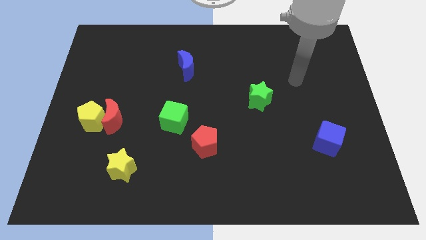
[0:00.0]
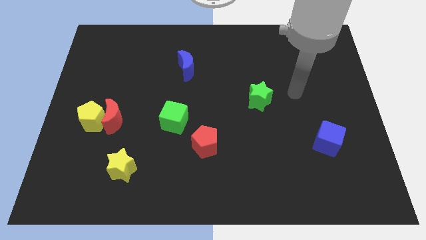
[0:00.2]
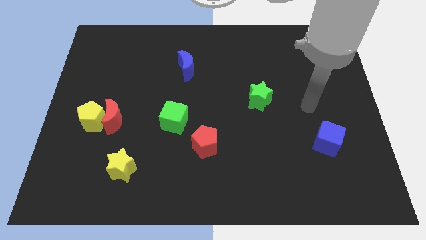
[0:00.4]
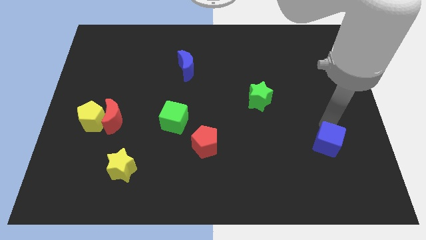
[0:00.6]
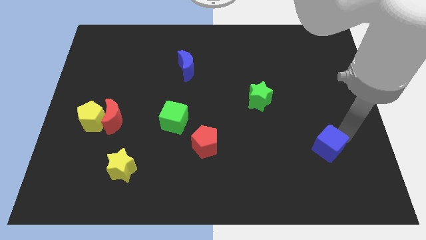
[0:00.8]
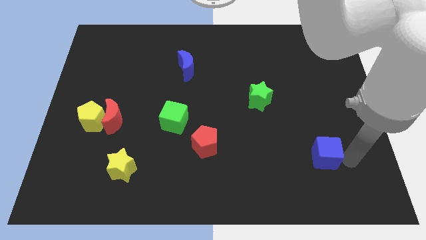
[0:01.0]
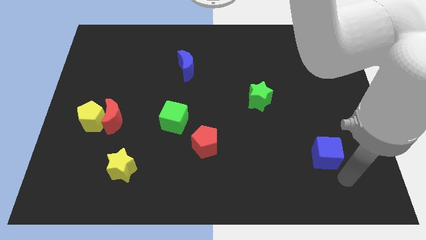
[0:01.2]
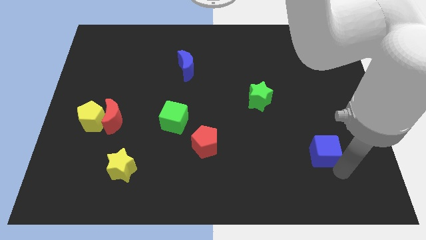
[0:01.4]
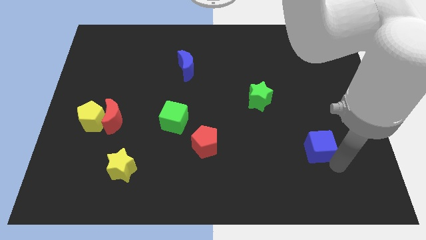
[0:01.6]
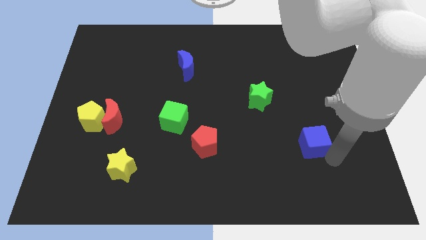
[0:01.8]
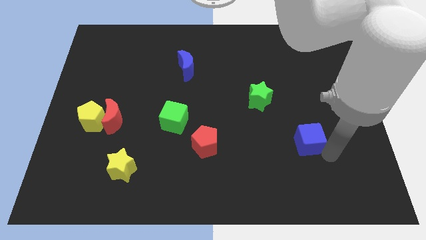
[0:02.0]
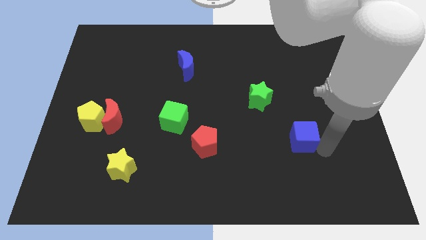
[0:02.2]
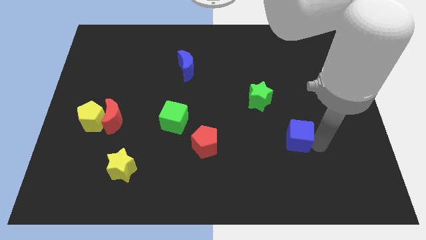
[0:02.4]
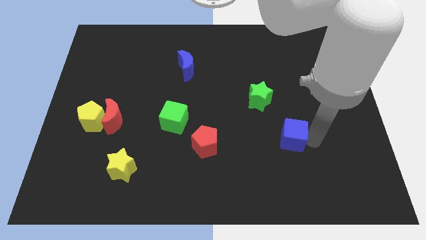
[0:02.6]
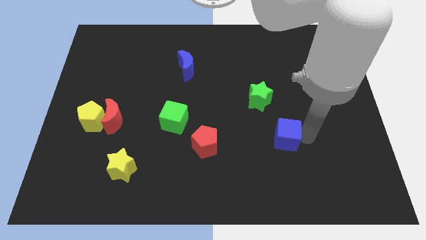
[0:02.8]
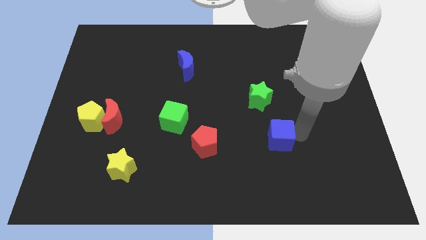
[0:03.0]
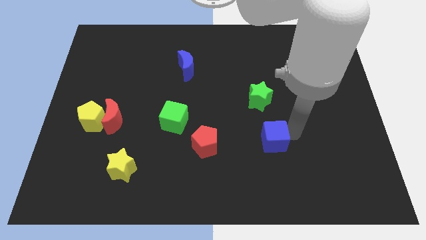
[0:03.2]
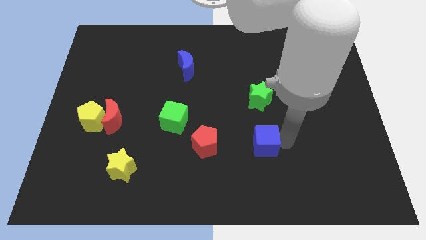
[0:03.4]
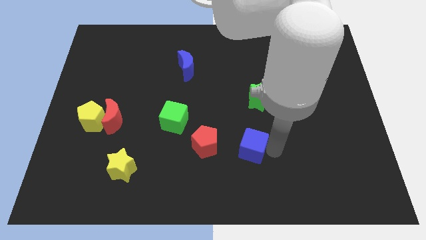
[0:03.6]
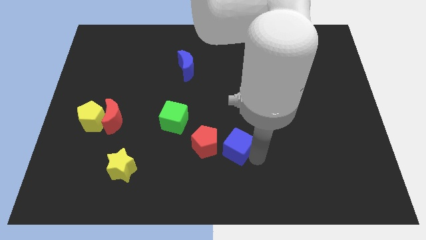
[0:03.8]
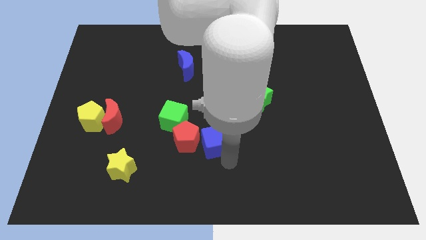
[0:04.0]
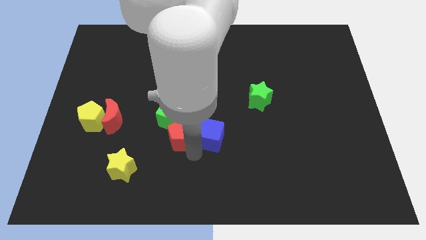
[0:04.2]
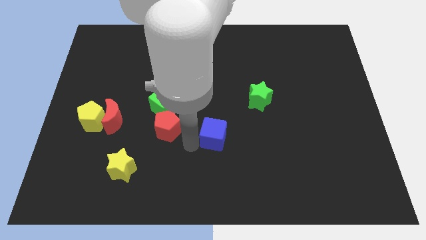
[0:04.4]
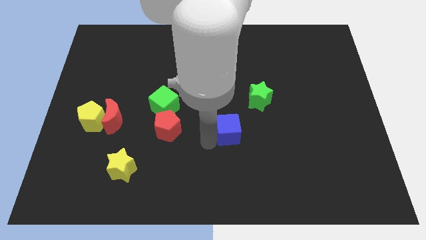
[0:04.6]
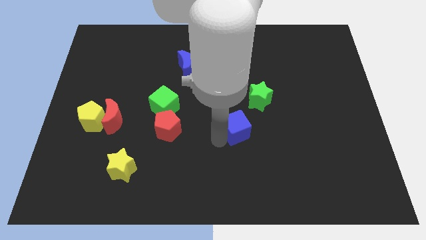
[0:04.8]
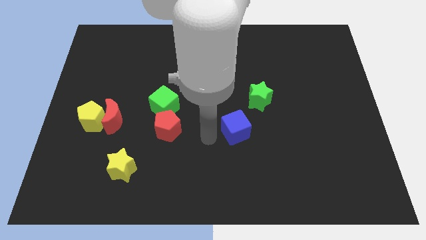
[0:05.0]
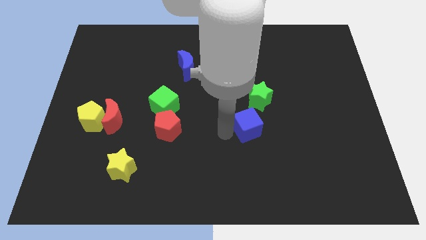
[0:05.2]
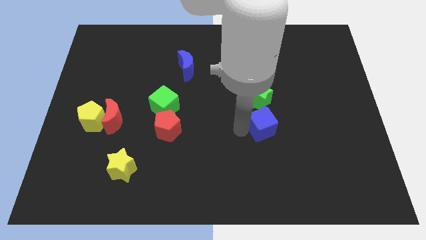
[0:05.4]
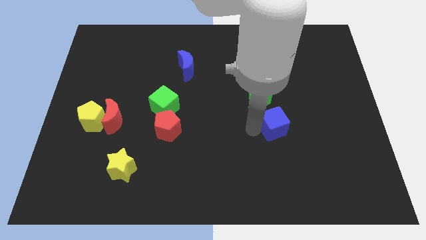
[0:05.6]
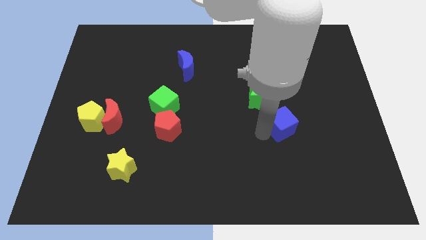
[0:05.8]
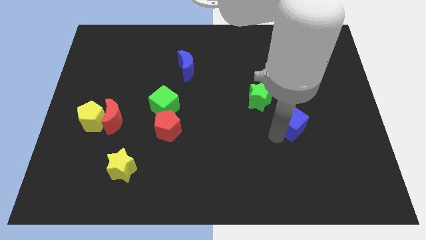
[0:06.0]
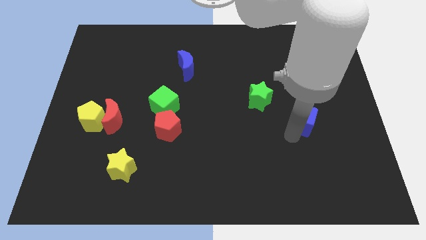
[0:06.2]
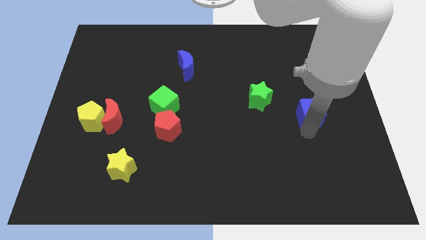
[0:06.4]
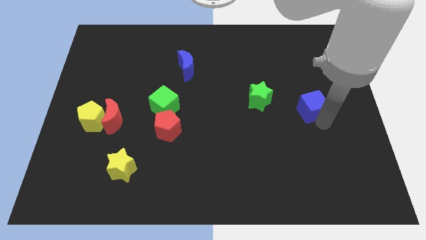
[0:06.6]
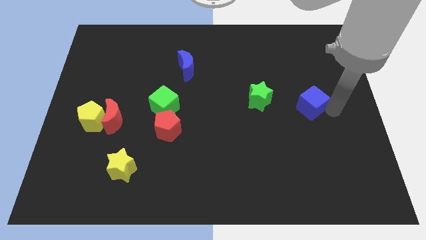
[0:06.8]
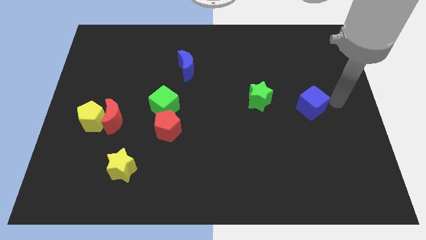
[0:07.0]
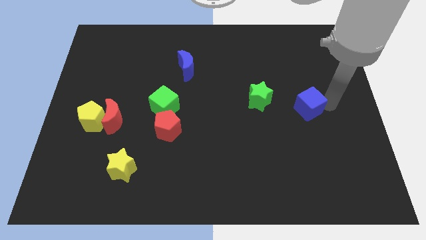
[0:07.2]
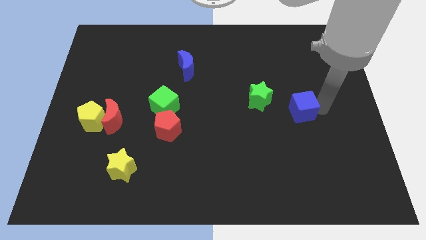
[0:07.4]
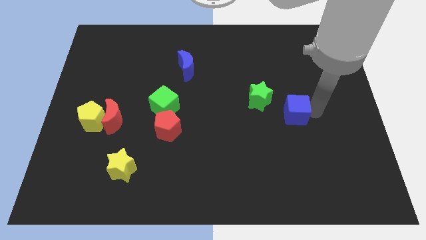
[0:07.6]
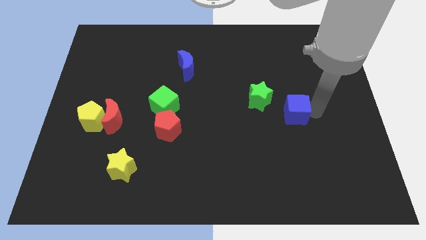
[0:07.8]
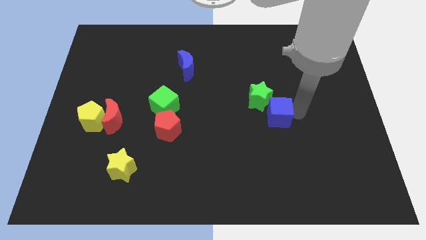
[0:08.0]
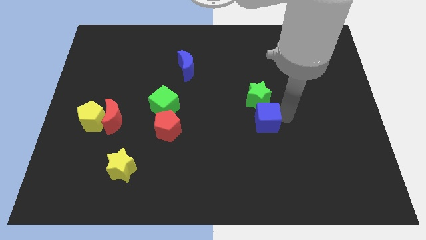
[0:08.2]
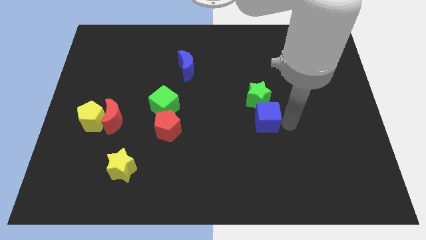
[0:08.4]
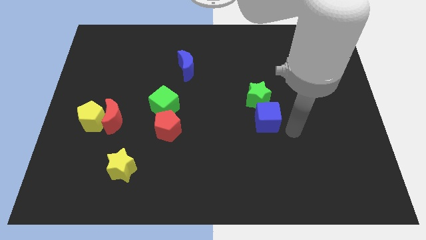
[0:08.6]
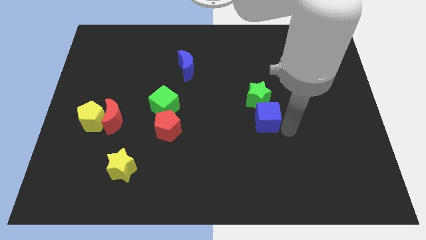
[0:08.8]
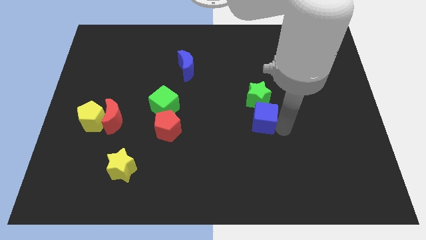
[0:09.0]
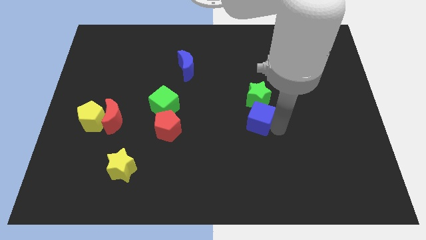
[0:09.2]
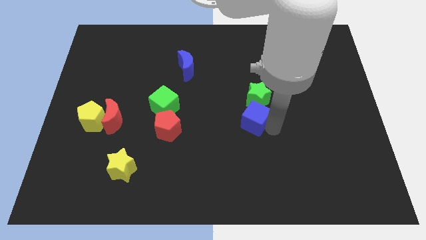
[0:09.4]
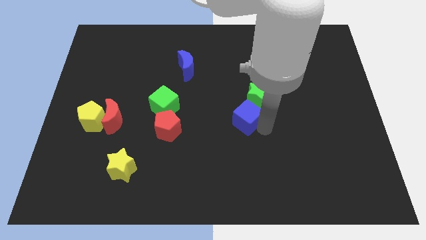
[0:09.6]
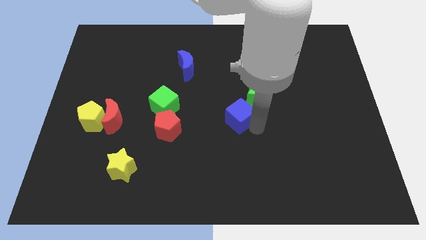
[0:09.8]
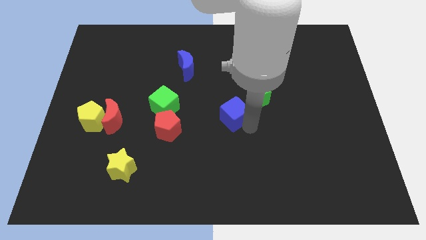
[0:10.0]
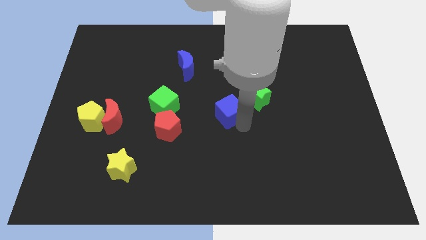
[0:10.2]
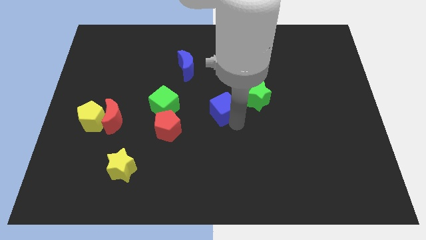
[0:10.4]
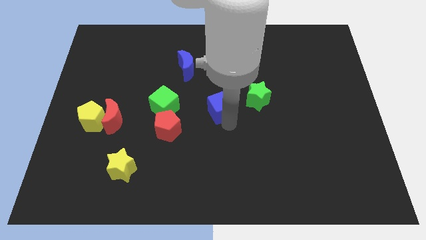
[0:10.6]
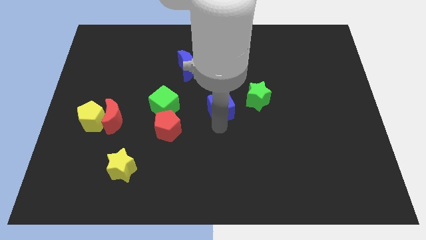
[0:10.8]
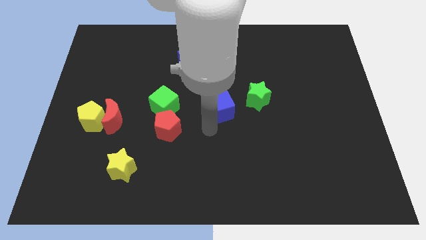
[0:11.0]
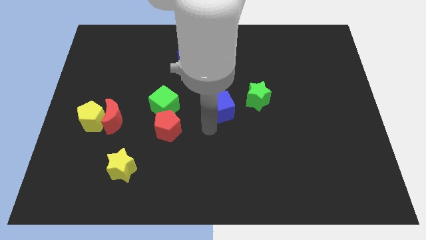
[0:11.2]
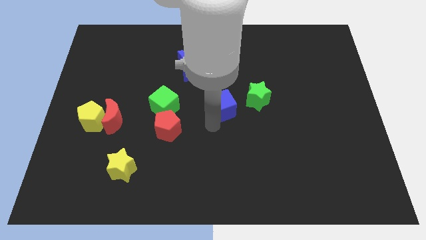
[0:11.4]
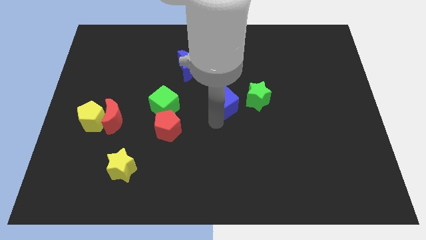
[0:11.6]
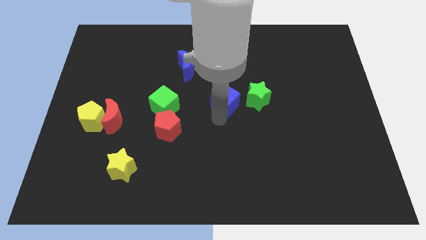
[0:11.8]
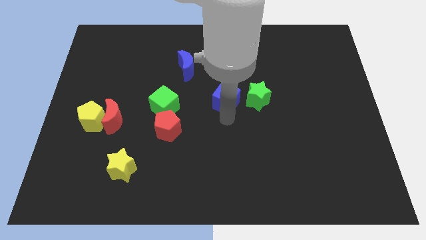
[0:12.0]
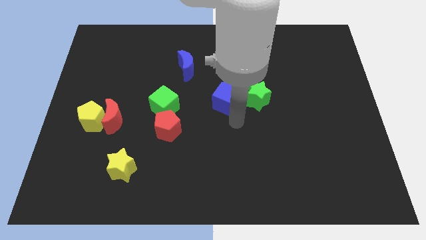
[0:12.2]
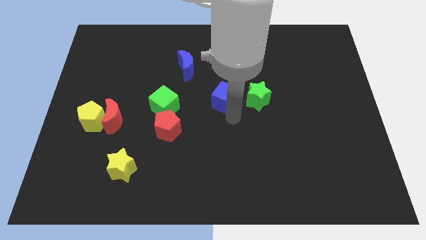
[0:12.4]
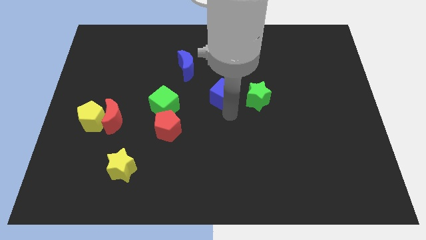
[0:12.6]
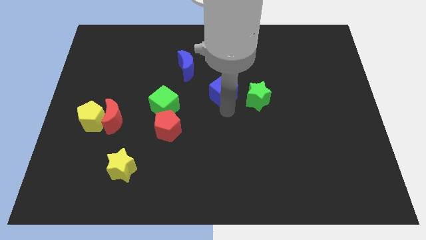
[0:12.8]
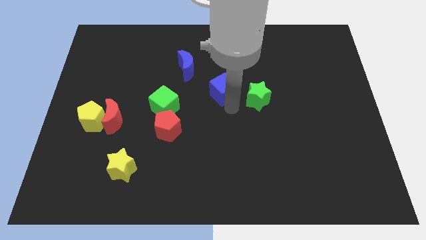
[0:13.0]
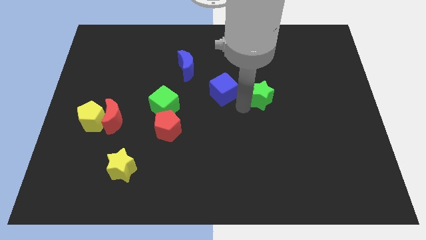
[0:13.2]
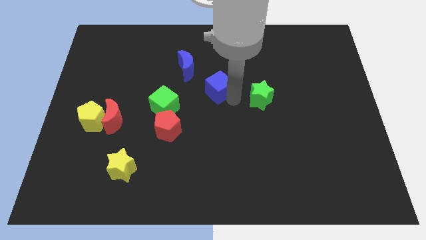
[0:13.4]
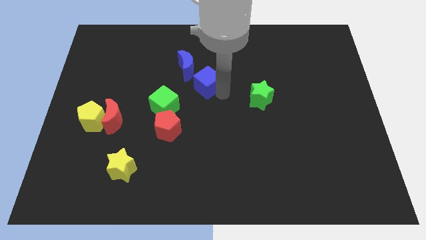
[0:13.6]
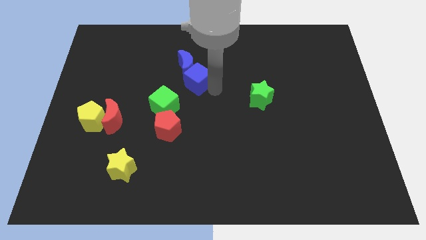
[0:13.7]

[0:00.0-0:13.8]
slide the blue cube close to the blue moon

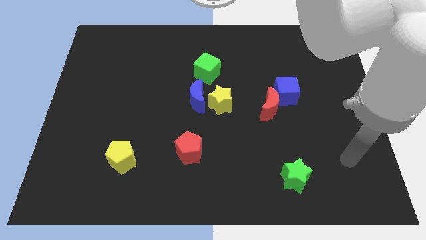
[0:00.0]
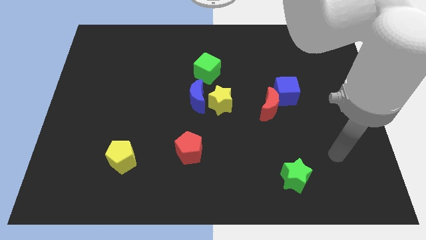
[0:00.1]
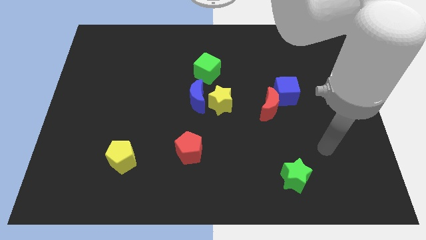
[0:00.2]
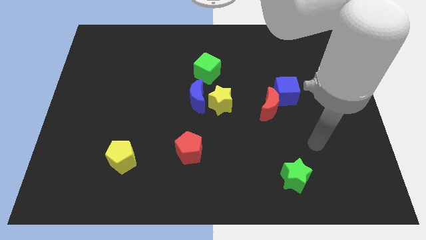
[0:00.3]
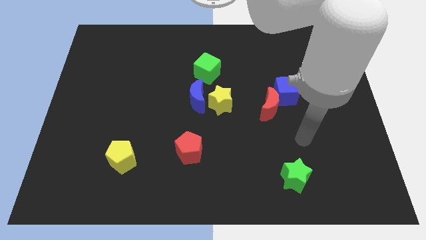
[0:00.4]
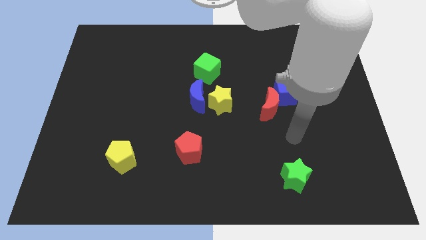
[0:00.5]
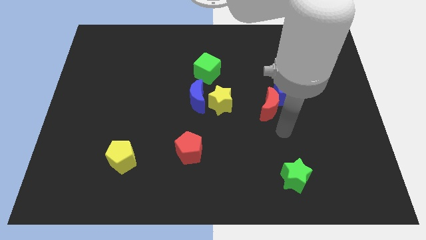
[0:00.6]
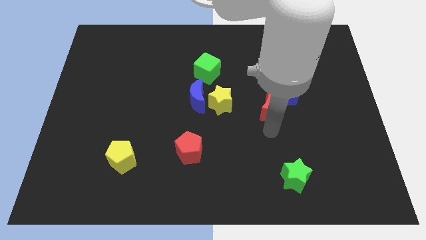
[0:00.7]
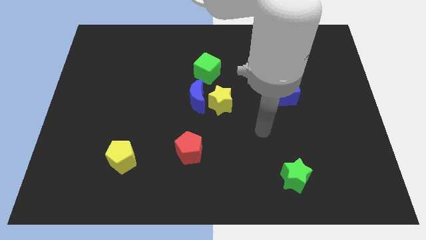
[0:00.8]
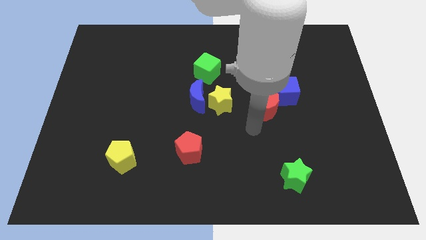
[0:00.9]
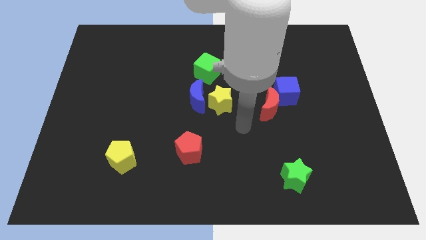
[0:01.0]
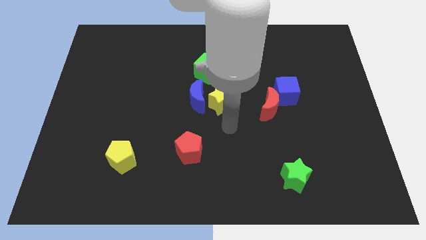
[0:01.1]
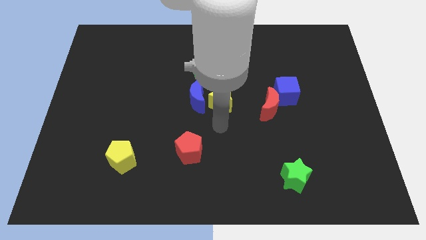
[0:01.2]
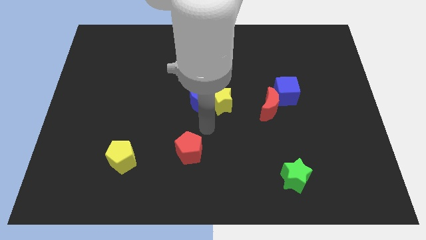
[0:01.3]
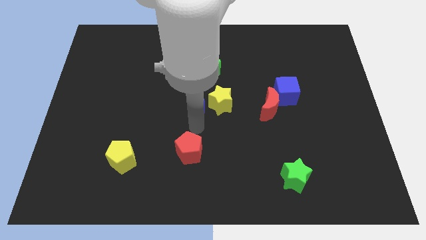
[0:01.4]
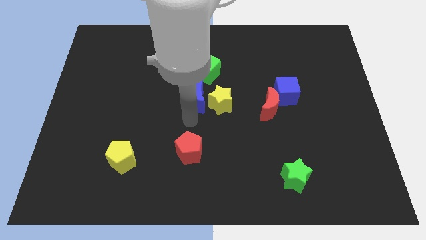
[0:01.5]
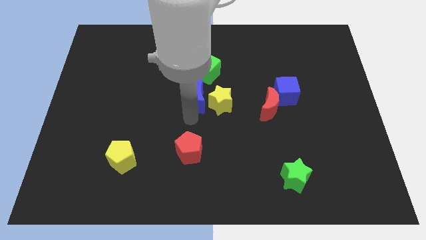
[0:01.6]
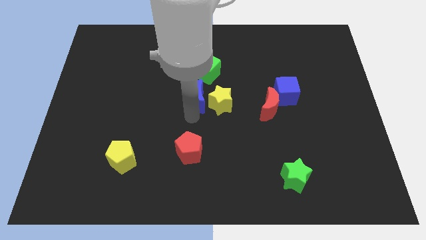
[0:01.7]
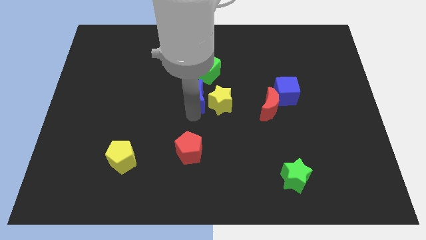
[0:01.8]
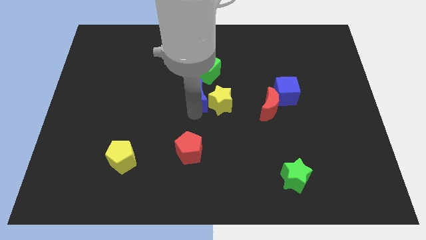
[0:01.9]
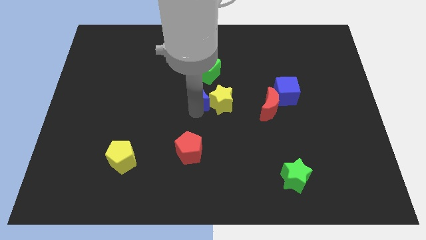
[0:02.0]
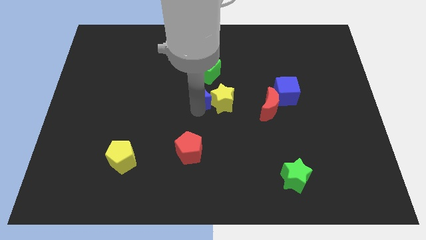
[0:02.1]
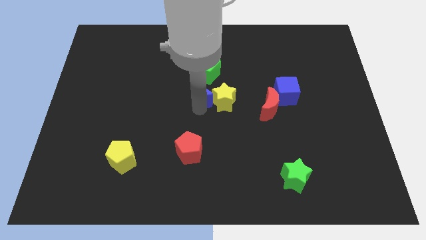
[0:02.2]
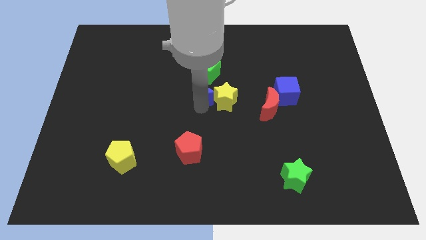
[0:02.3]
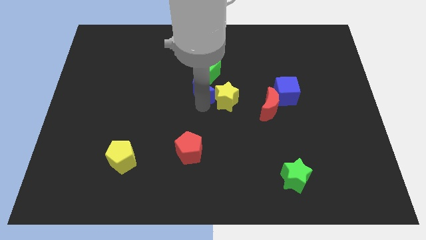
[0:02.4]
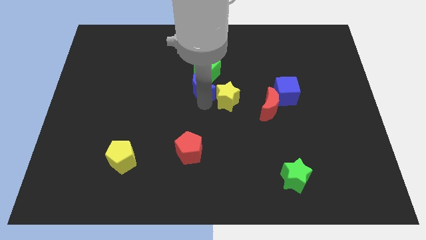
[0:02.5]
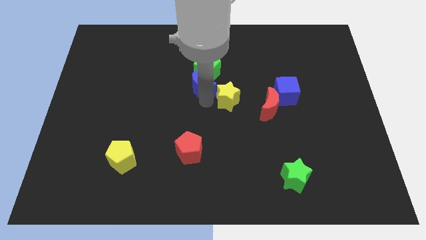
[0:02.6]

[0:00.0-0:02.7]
put the blue moon next to the green cube
